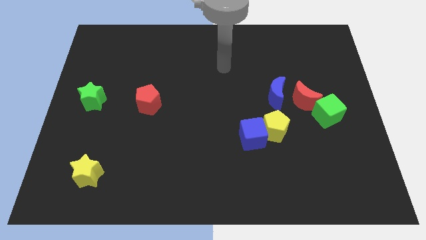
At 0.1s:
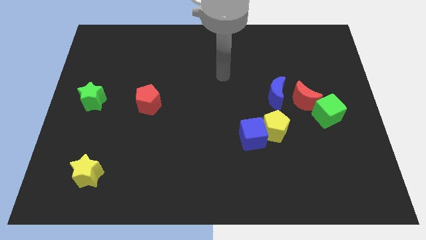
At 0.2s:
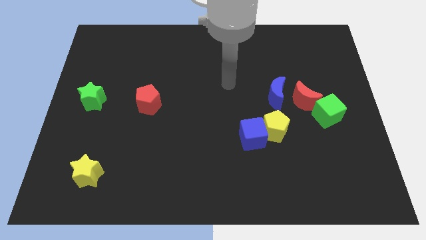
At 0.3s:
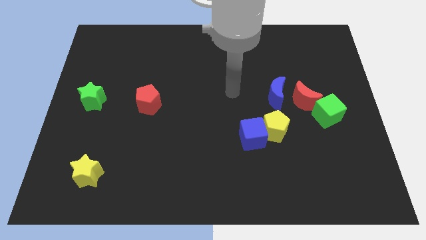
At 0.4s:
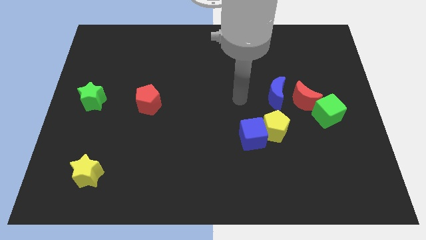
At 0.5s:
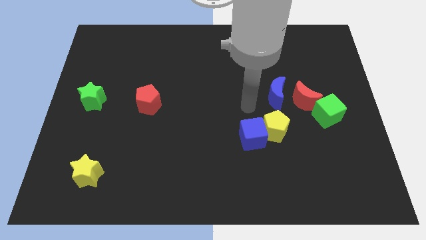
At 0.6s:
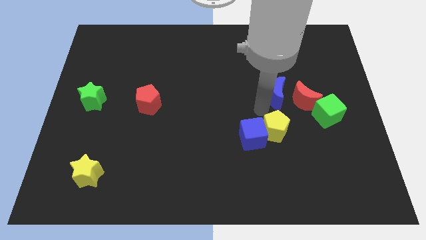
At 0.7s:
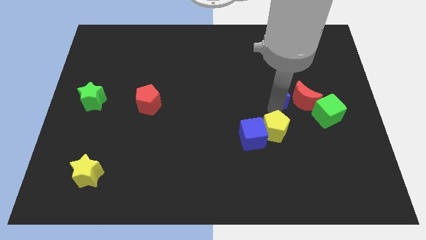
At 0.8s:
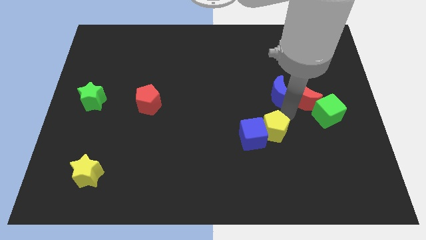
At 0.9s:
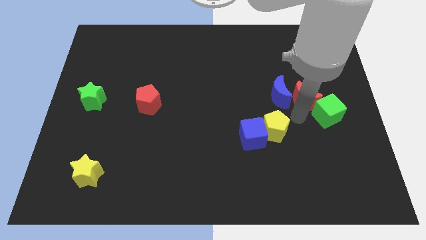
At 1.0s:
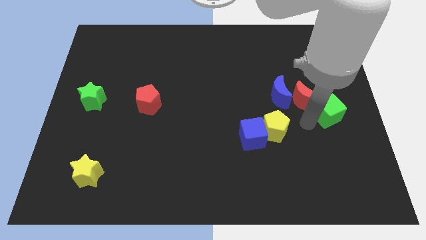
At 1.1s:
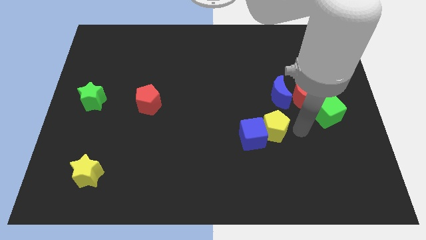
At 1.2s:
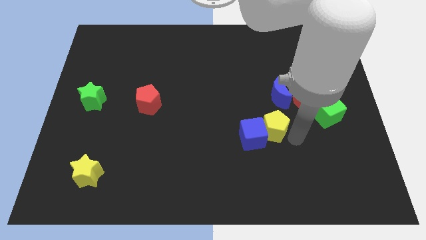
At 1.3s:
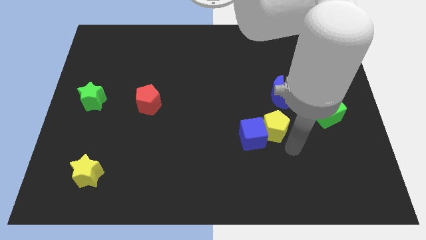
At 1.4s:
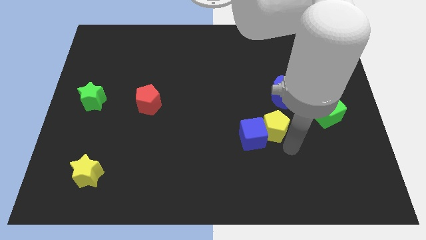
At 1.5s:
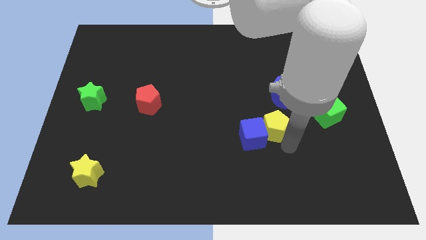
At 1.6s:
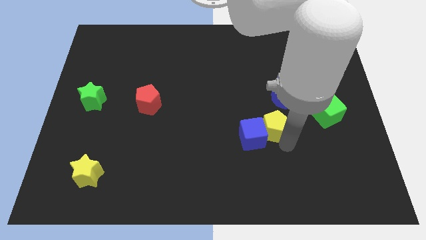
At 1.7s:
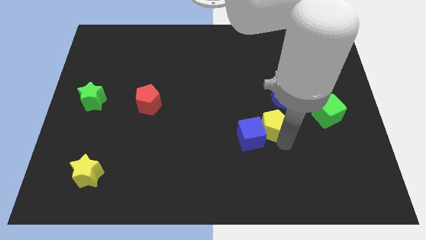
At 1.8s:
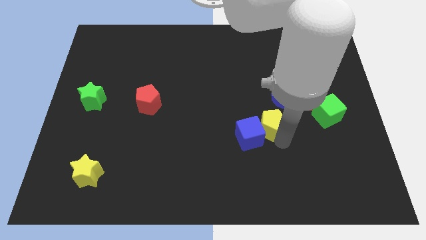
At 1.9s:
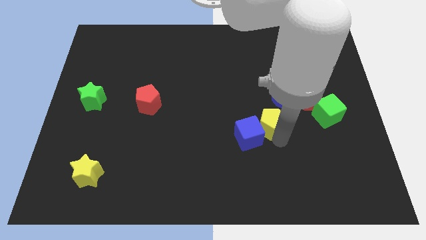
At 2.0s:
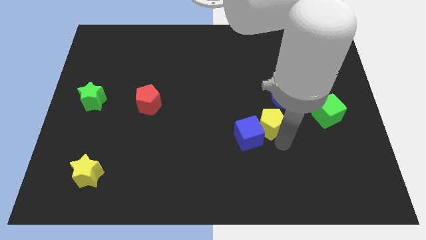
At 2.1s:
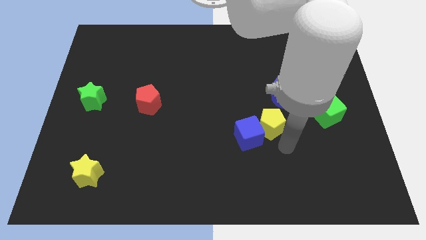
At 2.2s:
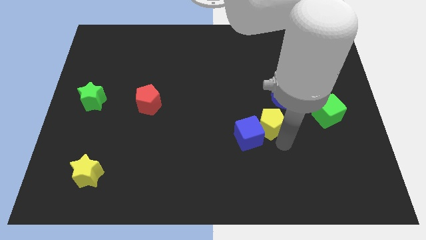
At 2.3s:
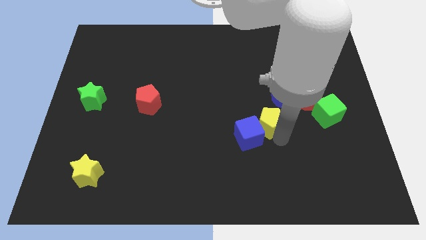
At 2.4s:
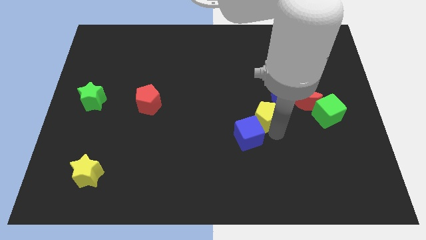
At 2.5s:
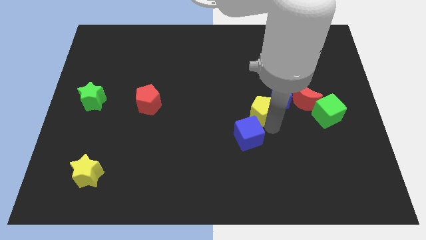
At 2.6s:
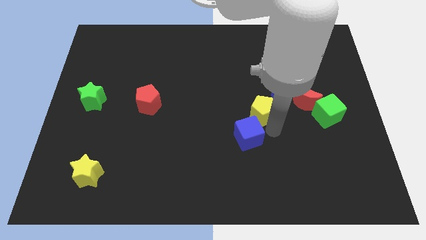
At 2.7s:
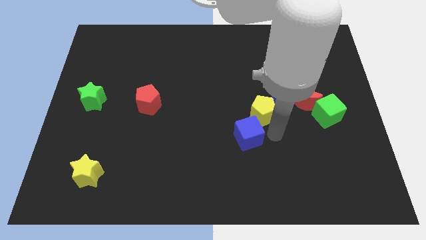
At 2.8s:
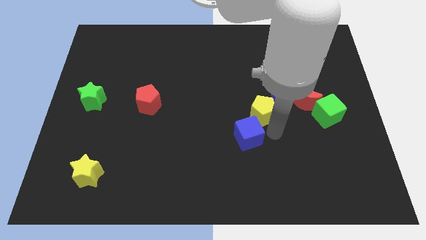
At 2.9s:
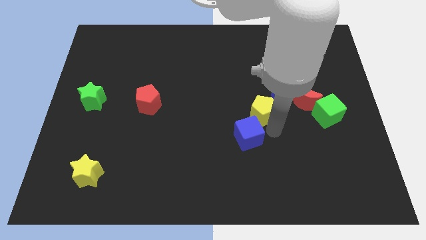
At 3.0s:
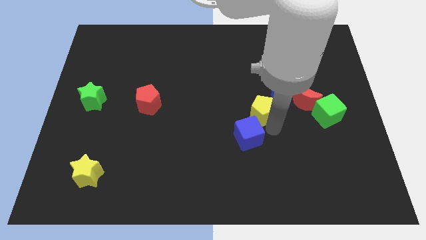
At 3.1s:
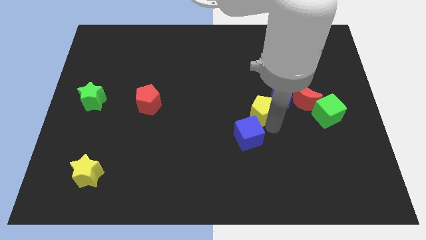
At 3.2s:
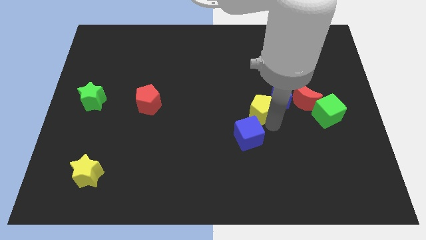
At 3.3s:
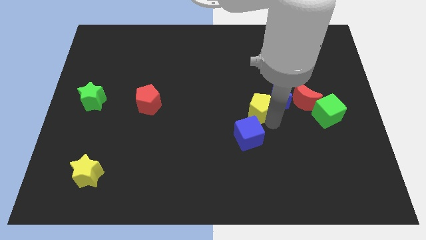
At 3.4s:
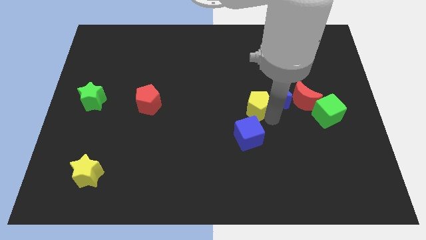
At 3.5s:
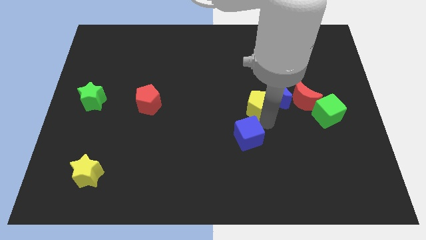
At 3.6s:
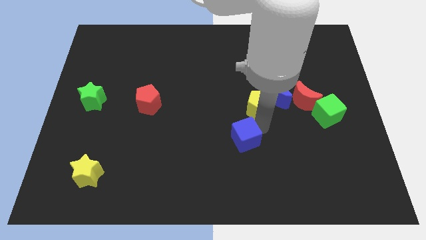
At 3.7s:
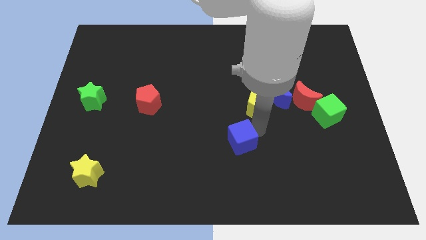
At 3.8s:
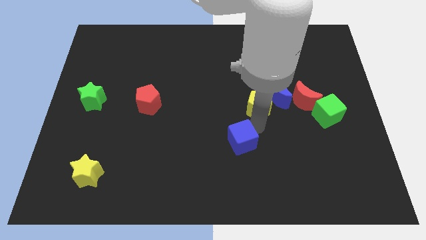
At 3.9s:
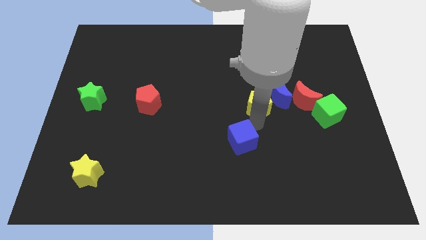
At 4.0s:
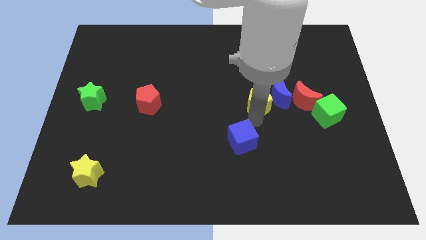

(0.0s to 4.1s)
push the yellow pentagon up a bit

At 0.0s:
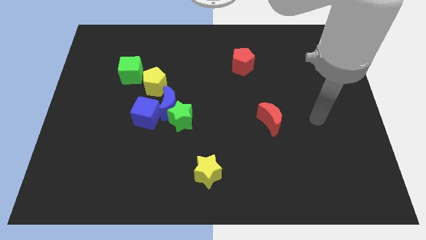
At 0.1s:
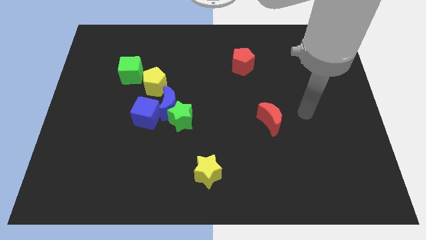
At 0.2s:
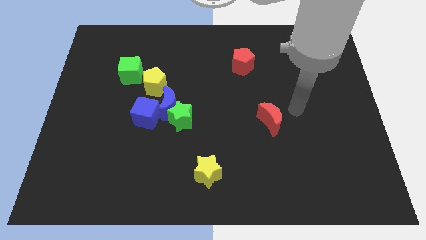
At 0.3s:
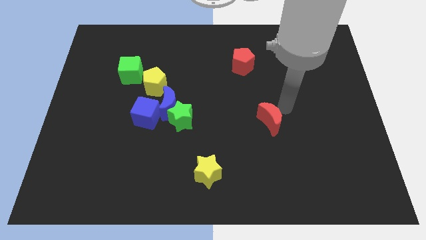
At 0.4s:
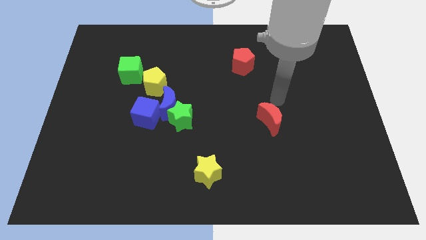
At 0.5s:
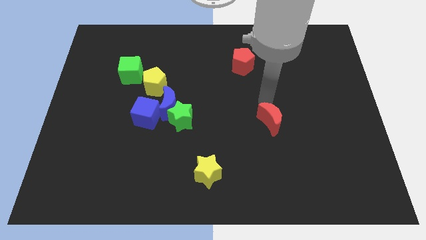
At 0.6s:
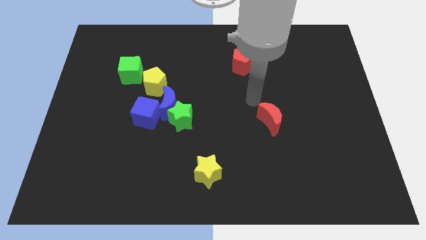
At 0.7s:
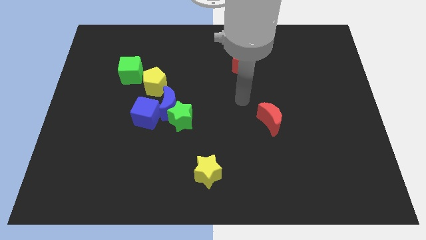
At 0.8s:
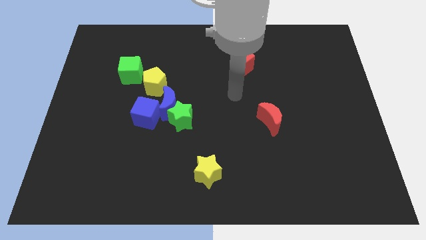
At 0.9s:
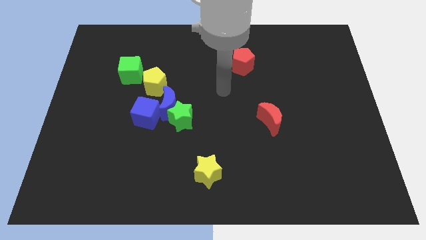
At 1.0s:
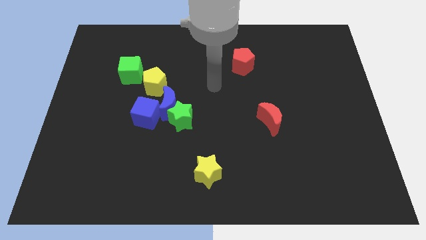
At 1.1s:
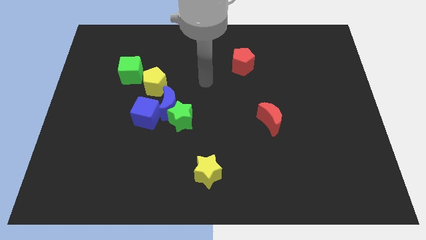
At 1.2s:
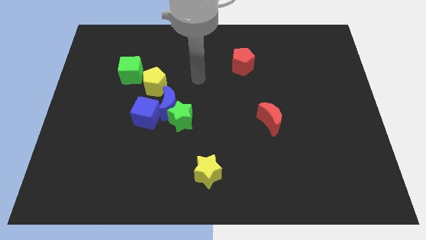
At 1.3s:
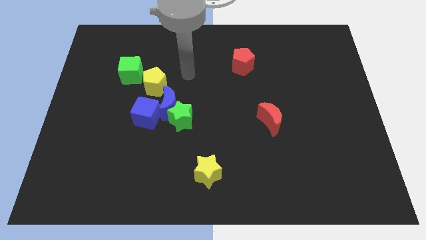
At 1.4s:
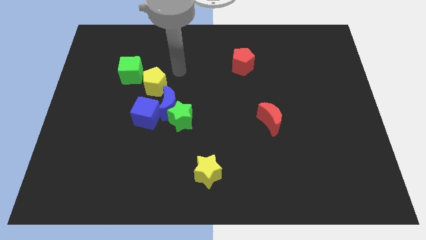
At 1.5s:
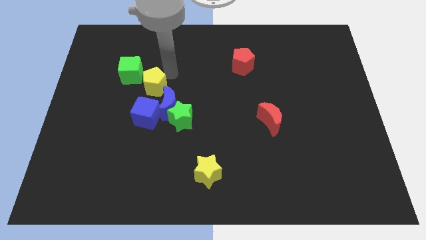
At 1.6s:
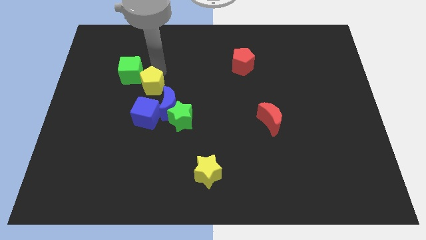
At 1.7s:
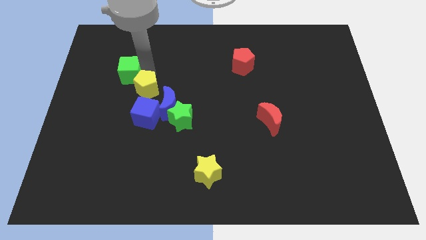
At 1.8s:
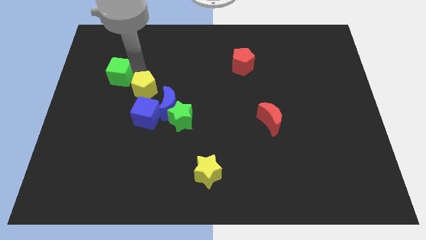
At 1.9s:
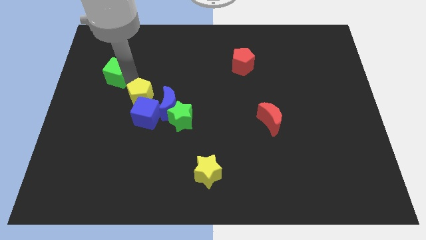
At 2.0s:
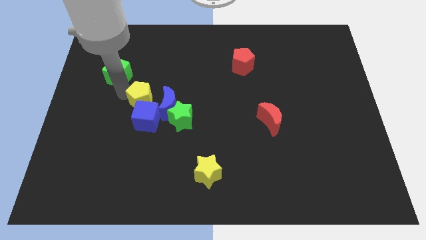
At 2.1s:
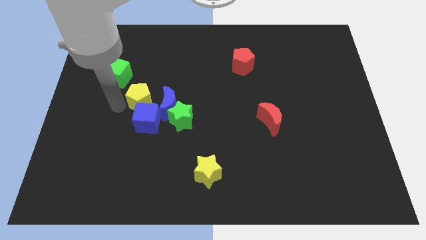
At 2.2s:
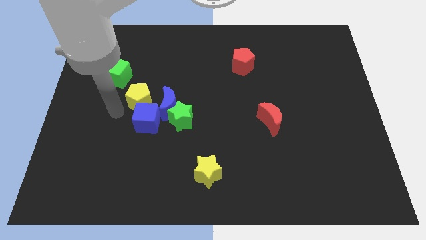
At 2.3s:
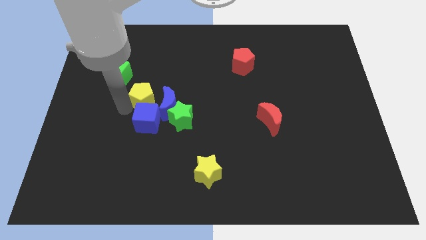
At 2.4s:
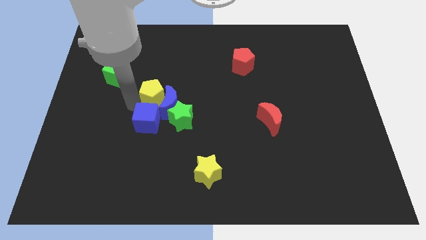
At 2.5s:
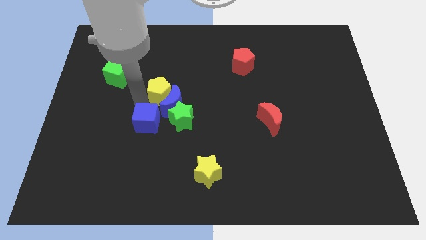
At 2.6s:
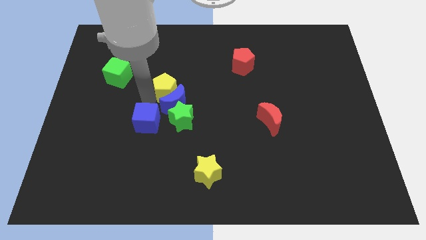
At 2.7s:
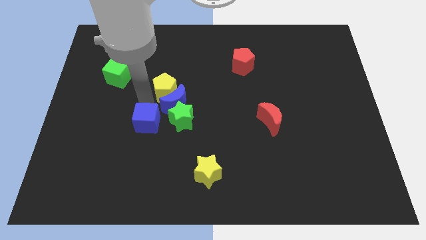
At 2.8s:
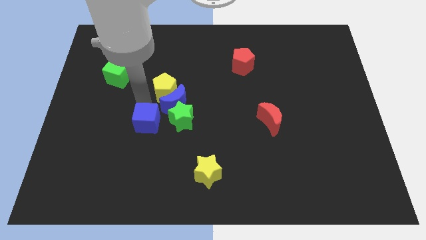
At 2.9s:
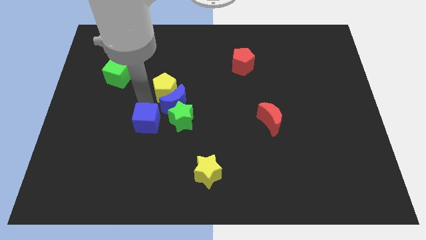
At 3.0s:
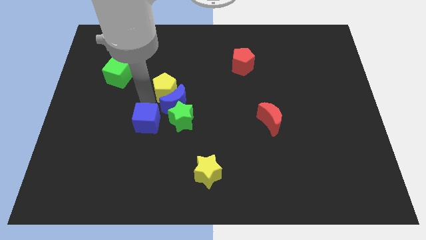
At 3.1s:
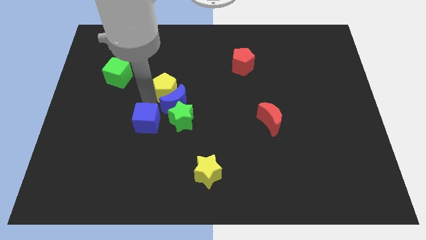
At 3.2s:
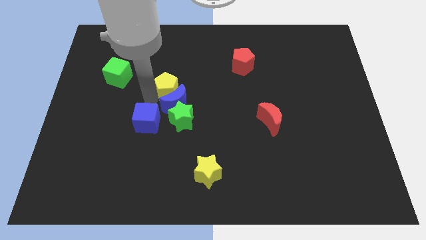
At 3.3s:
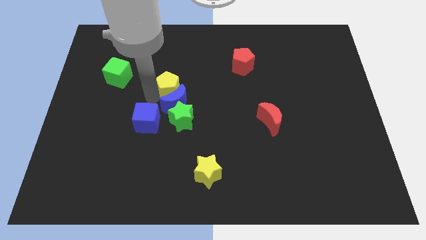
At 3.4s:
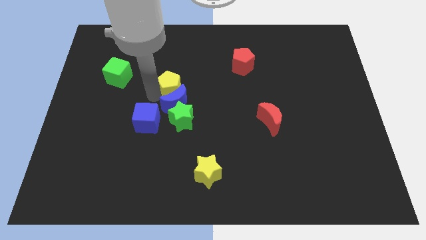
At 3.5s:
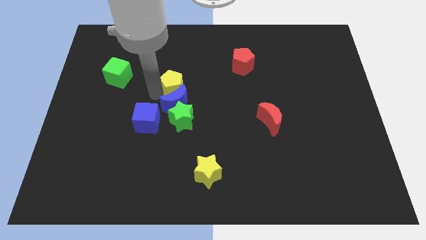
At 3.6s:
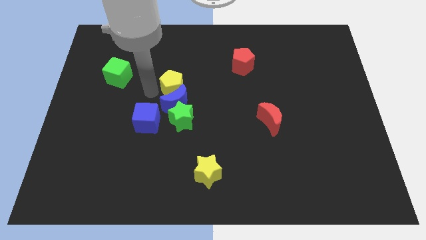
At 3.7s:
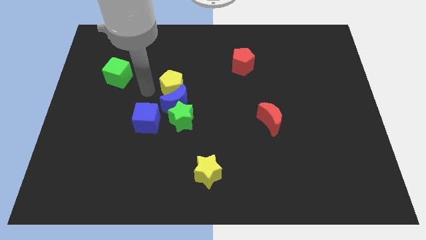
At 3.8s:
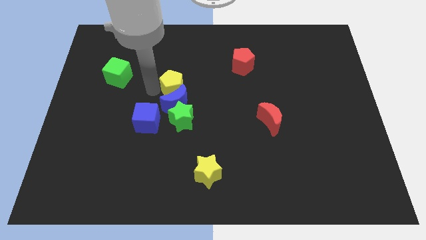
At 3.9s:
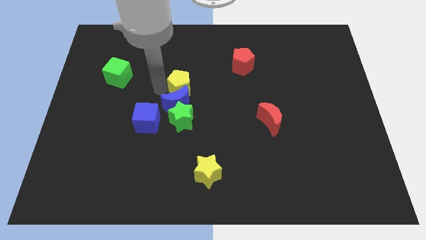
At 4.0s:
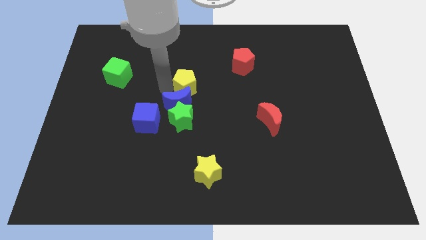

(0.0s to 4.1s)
move the yellow pentagon a little bit to the right
